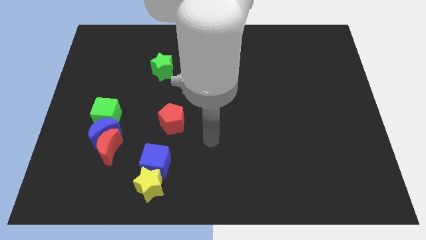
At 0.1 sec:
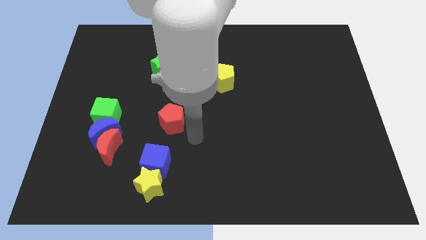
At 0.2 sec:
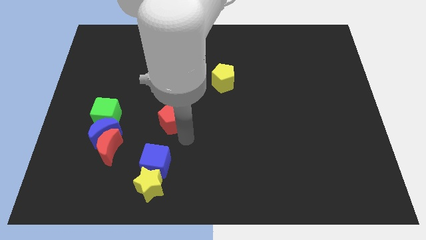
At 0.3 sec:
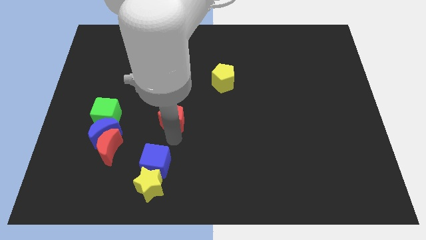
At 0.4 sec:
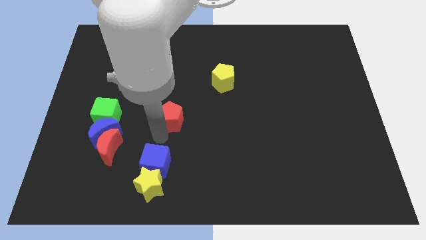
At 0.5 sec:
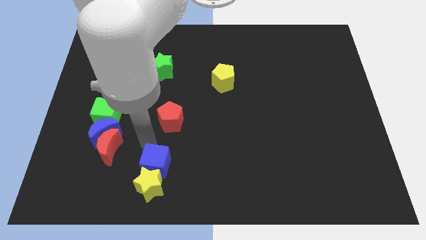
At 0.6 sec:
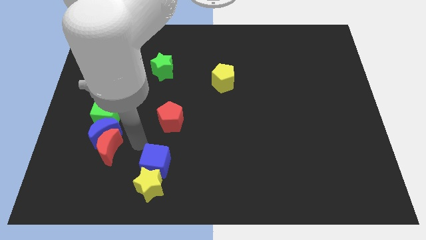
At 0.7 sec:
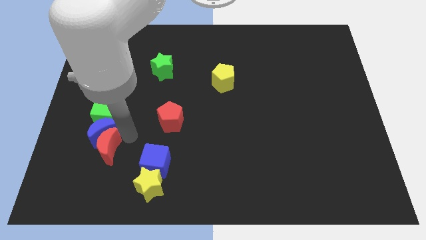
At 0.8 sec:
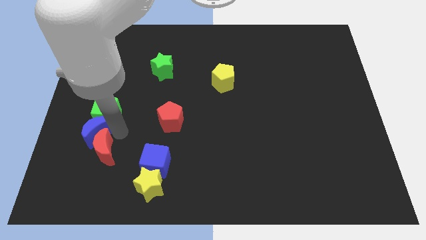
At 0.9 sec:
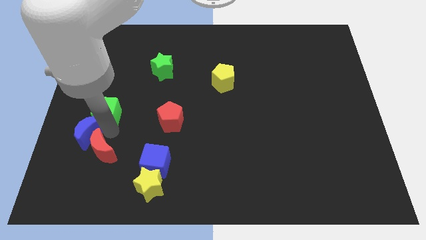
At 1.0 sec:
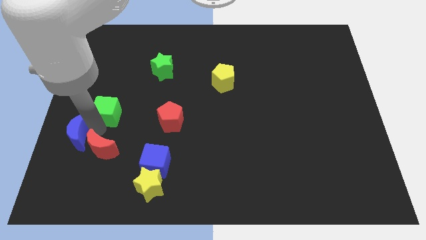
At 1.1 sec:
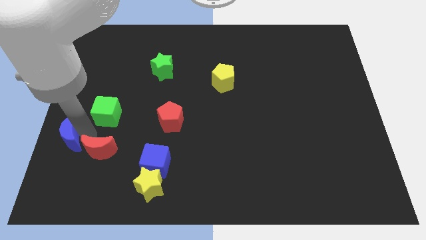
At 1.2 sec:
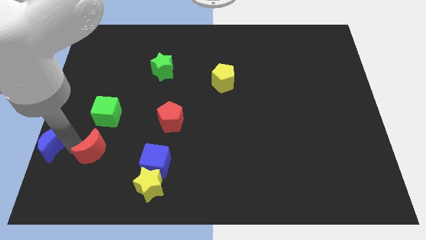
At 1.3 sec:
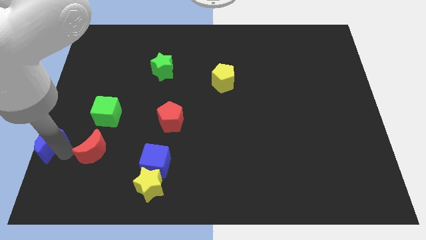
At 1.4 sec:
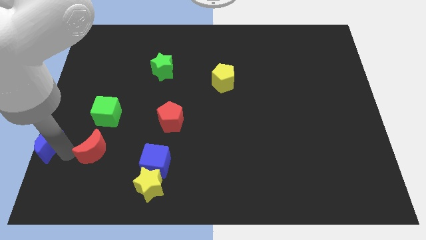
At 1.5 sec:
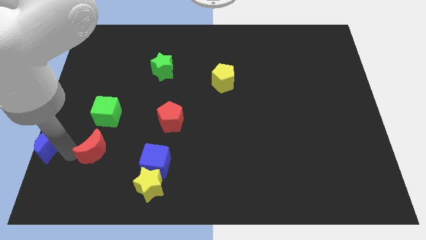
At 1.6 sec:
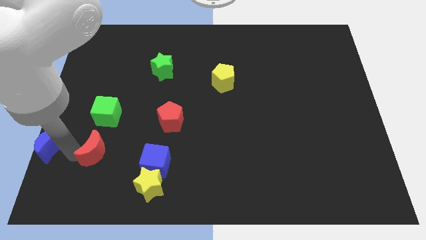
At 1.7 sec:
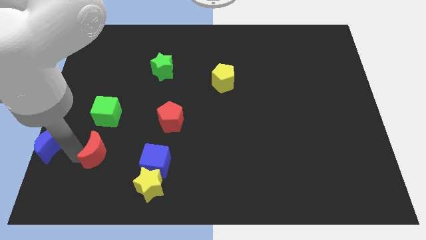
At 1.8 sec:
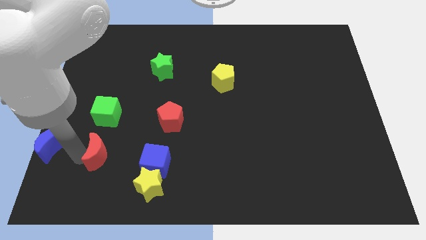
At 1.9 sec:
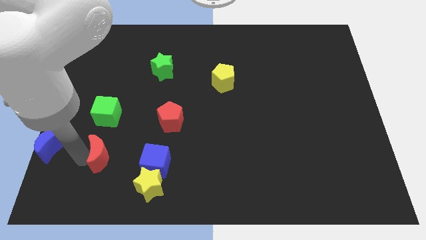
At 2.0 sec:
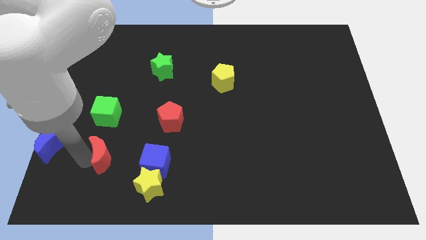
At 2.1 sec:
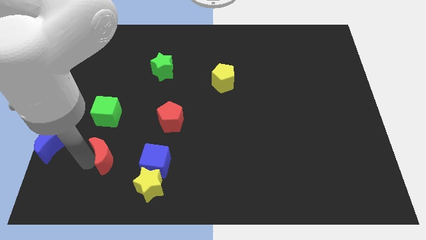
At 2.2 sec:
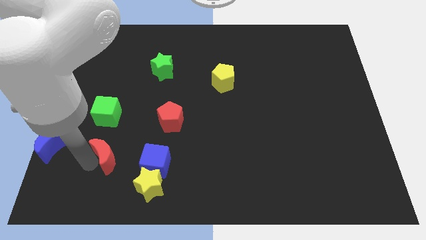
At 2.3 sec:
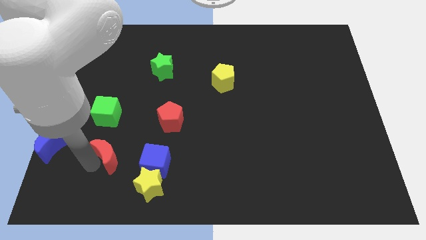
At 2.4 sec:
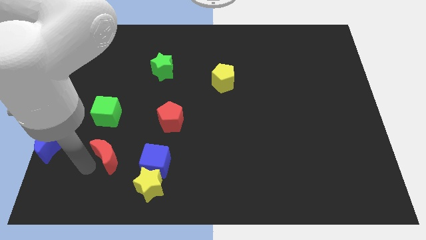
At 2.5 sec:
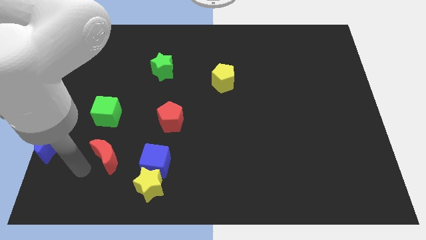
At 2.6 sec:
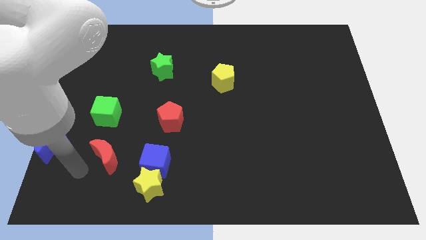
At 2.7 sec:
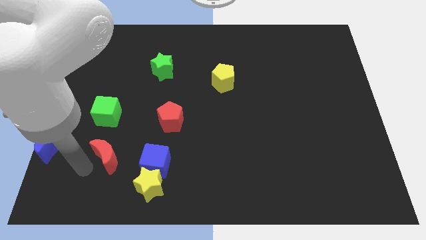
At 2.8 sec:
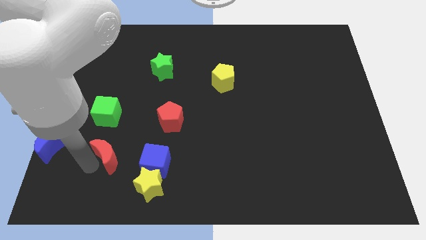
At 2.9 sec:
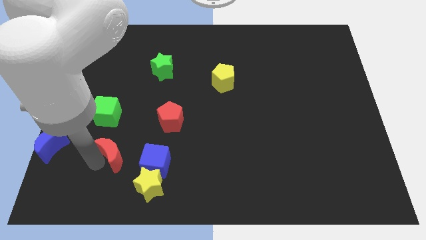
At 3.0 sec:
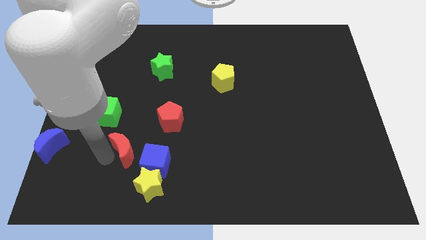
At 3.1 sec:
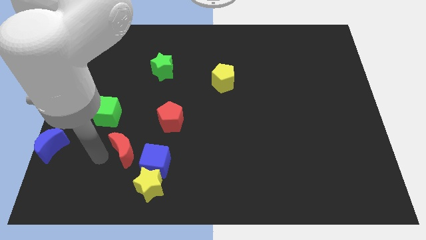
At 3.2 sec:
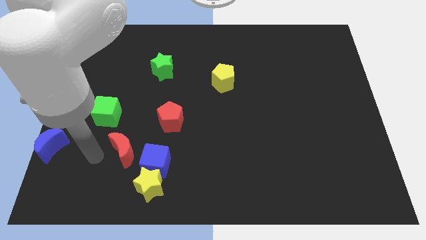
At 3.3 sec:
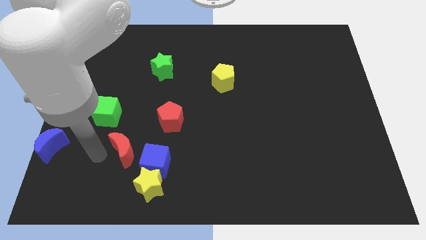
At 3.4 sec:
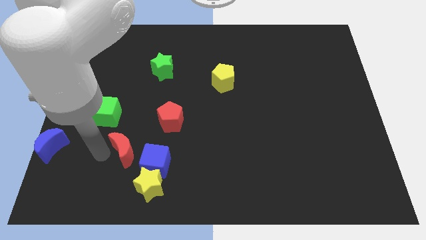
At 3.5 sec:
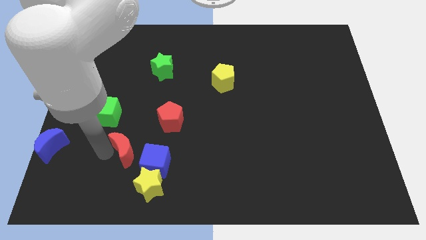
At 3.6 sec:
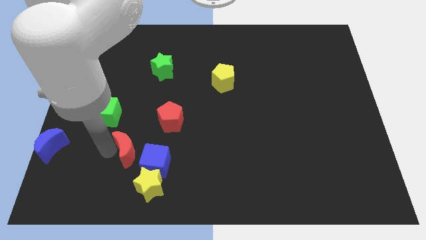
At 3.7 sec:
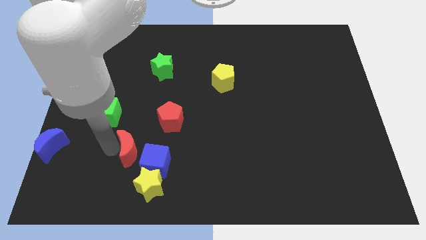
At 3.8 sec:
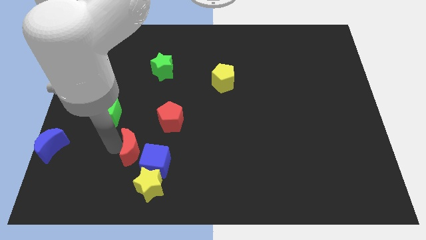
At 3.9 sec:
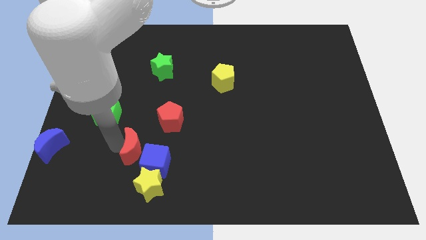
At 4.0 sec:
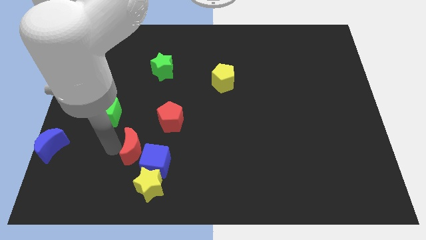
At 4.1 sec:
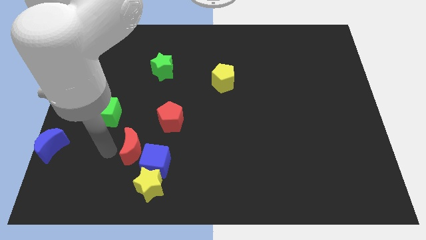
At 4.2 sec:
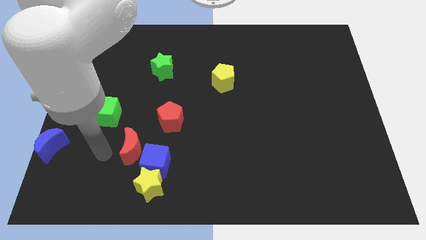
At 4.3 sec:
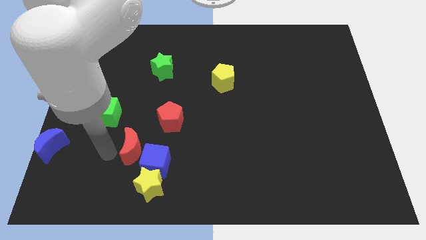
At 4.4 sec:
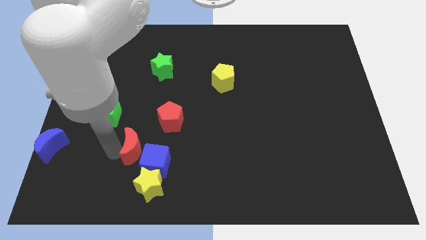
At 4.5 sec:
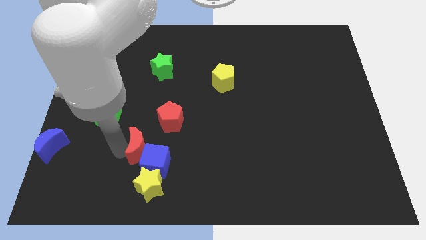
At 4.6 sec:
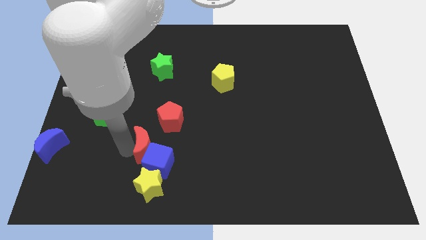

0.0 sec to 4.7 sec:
push the red moon right a bit

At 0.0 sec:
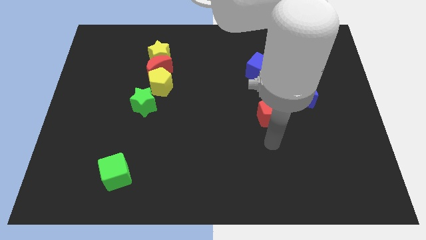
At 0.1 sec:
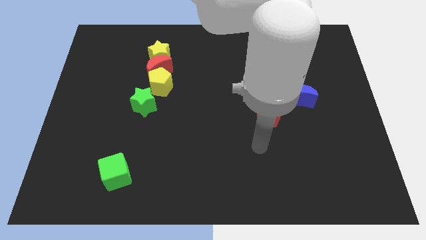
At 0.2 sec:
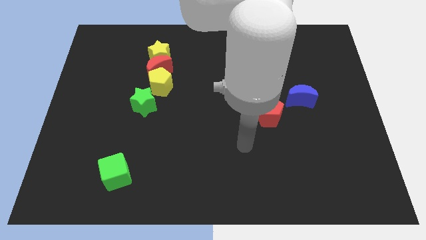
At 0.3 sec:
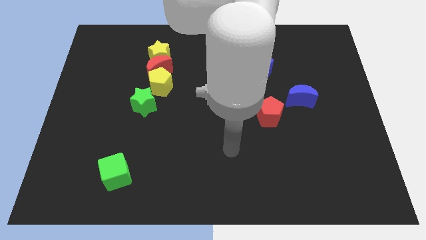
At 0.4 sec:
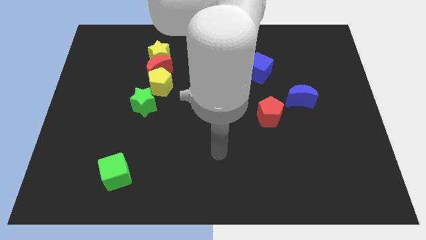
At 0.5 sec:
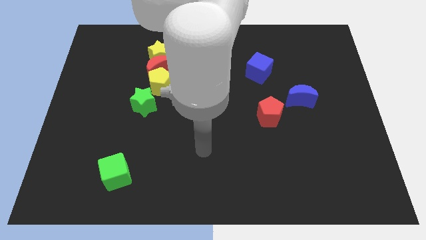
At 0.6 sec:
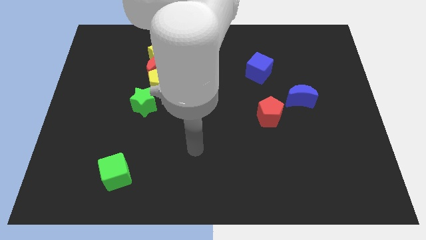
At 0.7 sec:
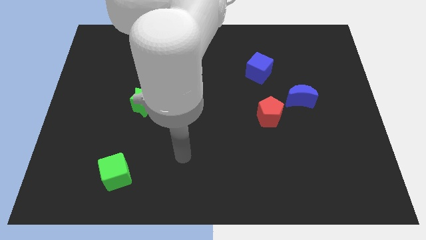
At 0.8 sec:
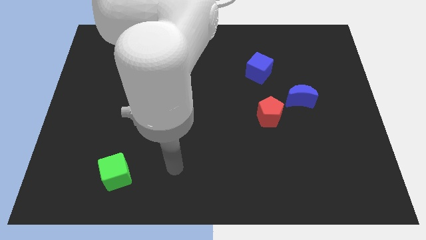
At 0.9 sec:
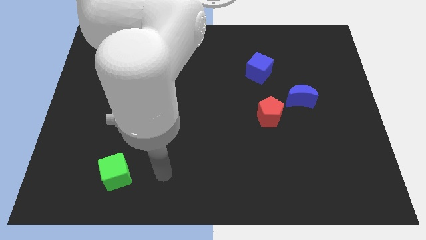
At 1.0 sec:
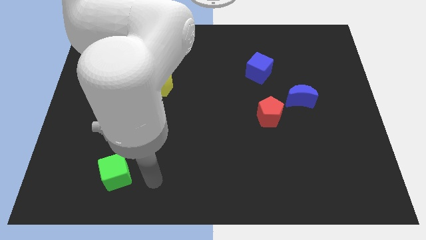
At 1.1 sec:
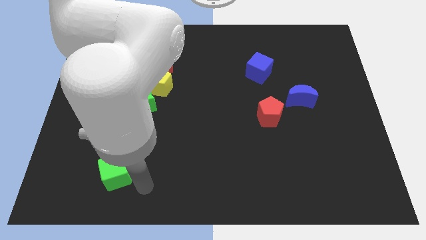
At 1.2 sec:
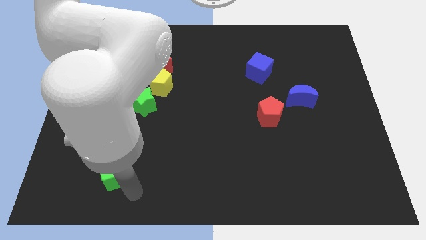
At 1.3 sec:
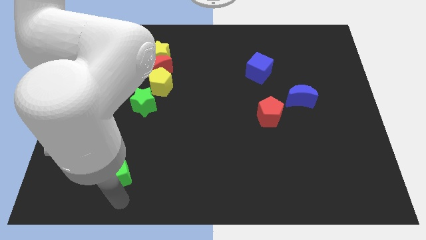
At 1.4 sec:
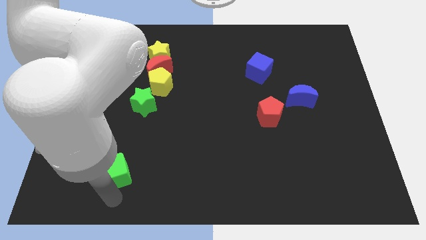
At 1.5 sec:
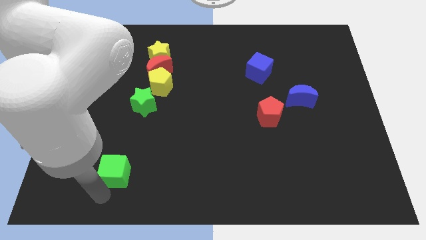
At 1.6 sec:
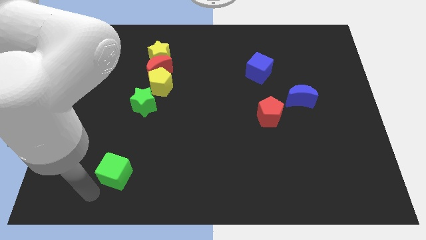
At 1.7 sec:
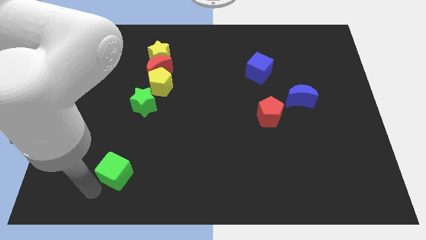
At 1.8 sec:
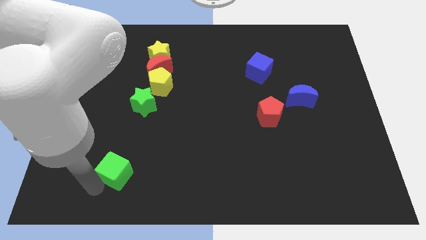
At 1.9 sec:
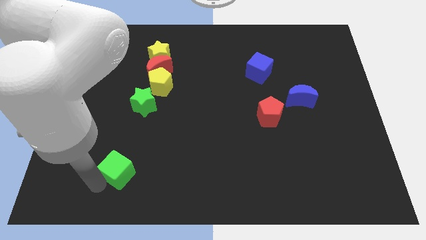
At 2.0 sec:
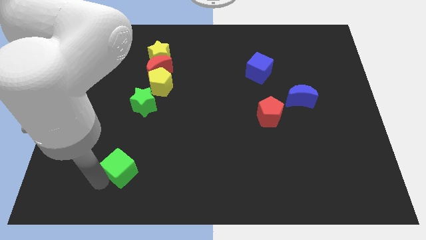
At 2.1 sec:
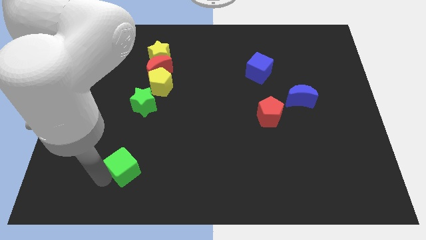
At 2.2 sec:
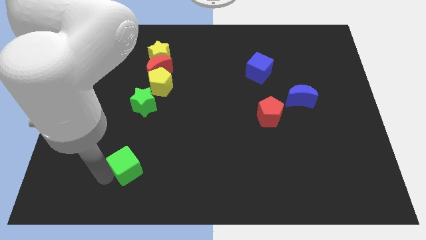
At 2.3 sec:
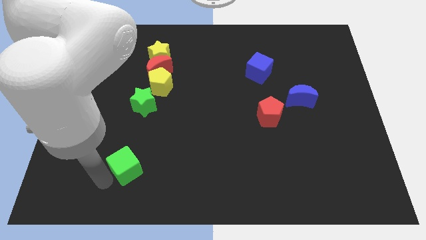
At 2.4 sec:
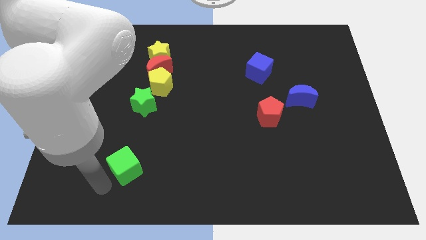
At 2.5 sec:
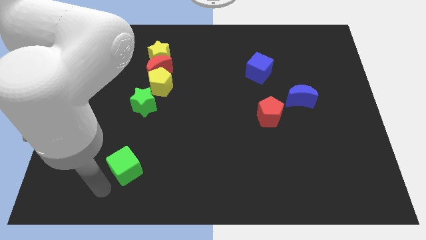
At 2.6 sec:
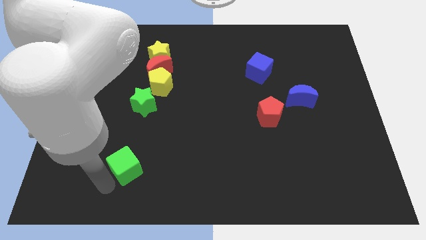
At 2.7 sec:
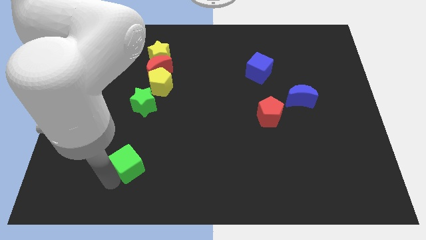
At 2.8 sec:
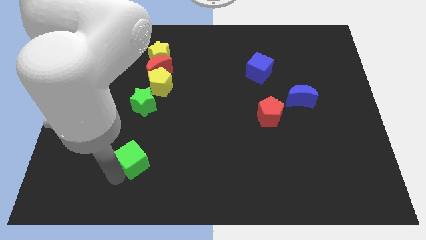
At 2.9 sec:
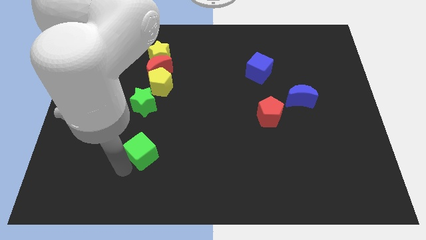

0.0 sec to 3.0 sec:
move the green cube upwards and right a little bit

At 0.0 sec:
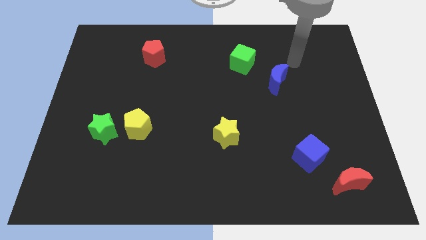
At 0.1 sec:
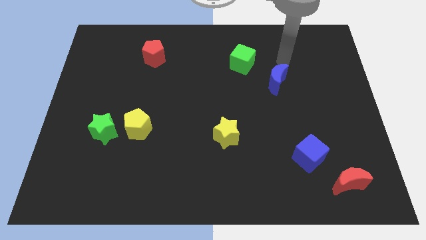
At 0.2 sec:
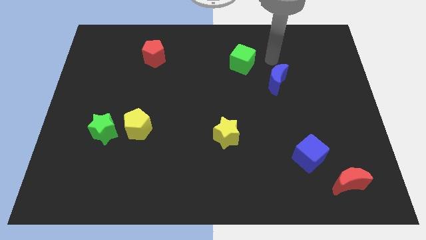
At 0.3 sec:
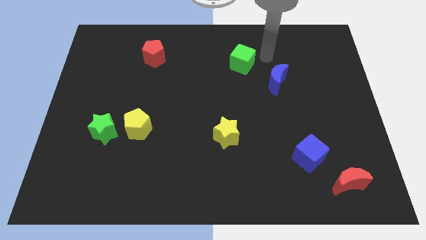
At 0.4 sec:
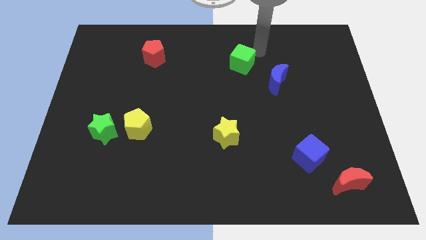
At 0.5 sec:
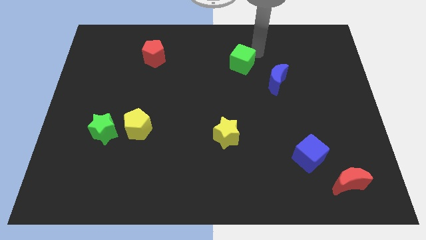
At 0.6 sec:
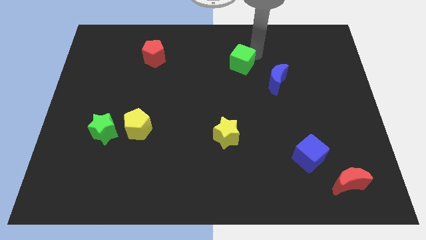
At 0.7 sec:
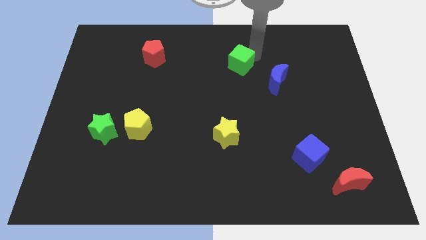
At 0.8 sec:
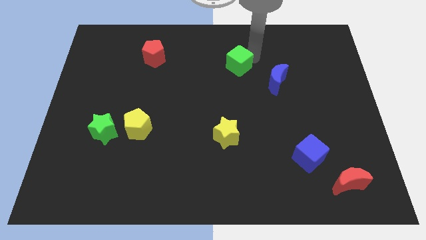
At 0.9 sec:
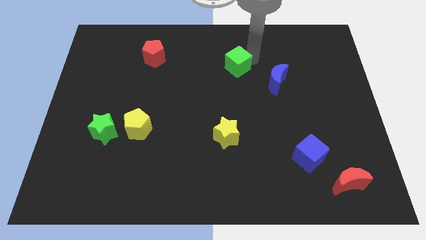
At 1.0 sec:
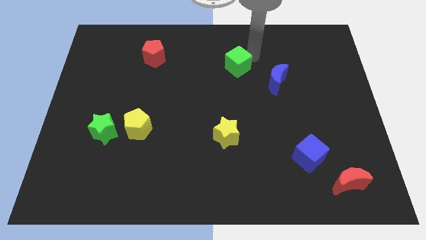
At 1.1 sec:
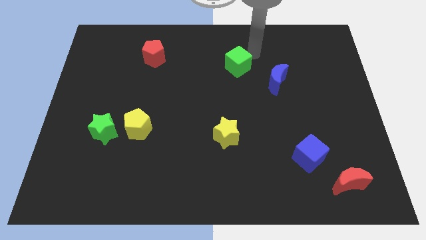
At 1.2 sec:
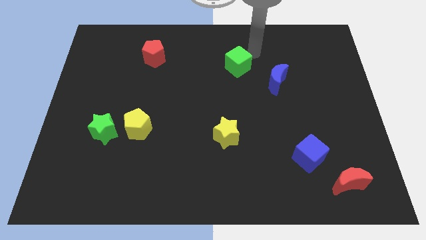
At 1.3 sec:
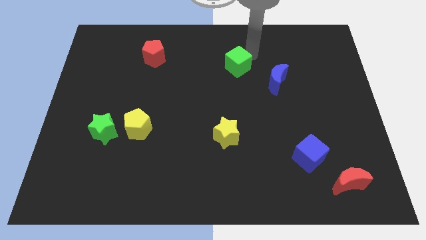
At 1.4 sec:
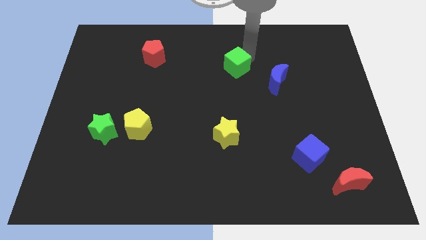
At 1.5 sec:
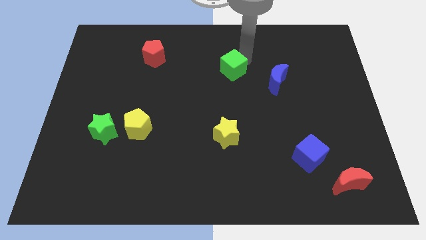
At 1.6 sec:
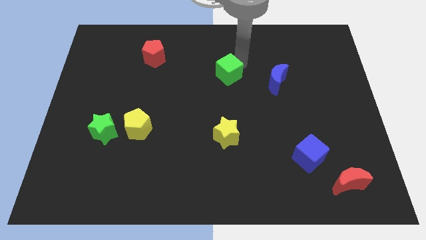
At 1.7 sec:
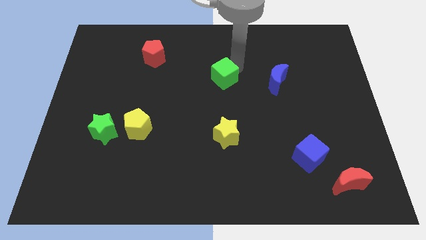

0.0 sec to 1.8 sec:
move the green cube a little down and left
